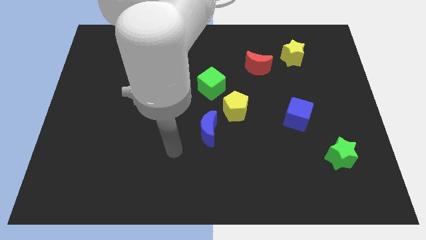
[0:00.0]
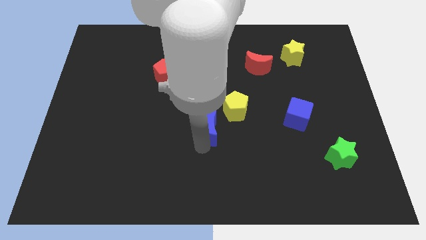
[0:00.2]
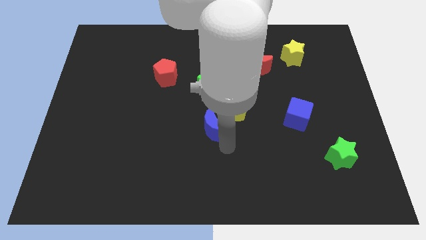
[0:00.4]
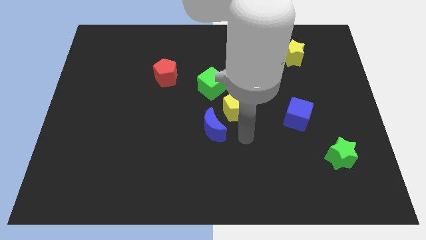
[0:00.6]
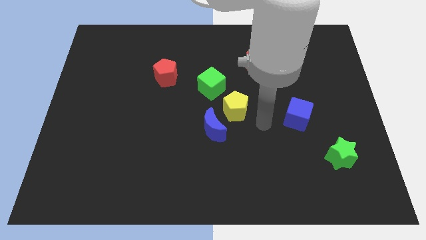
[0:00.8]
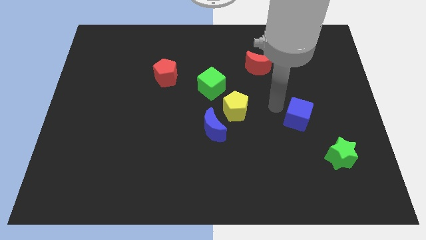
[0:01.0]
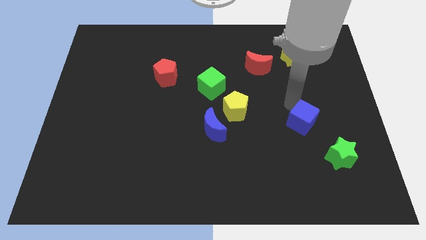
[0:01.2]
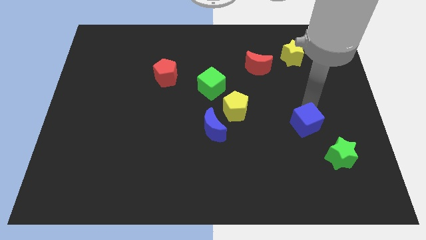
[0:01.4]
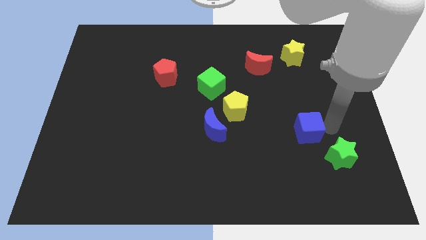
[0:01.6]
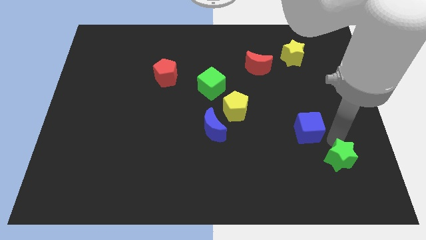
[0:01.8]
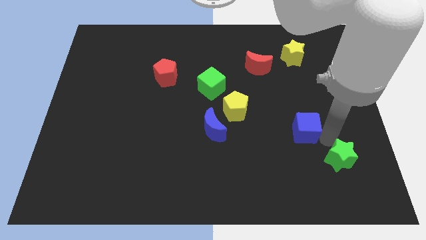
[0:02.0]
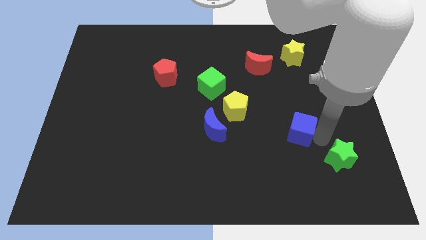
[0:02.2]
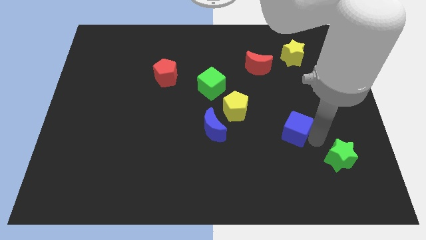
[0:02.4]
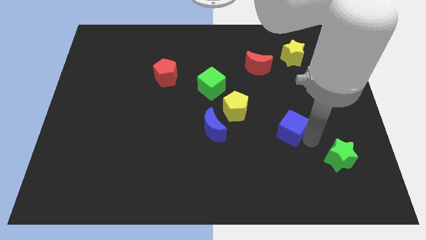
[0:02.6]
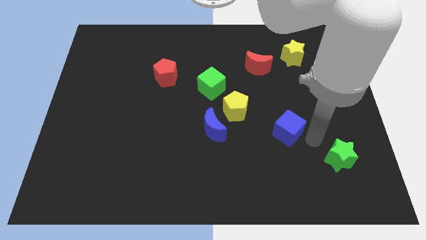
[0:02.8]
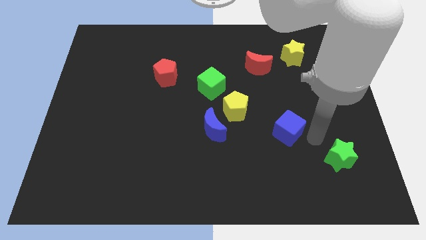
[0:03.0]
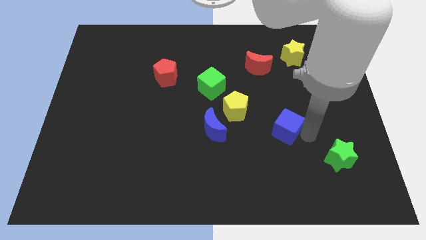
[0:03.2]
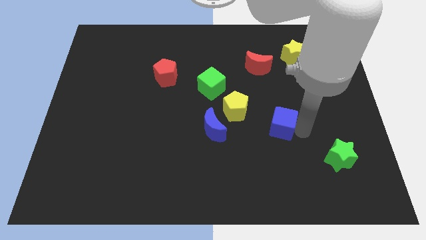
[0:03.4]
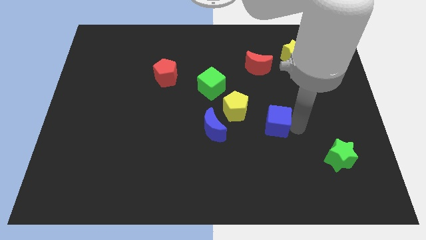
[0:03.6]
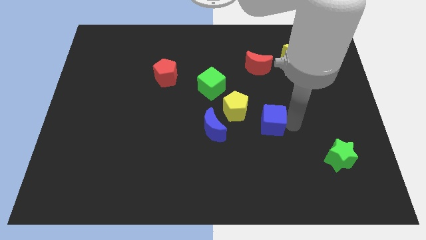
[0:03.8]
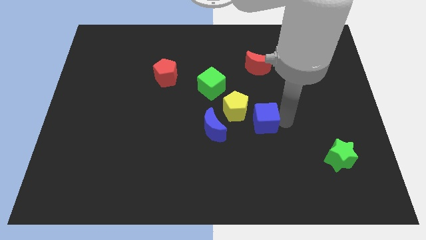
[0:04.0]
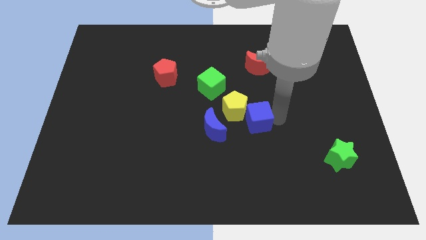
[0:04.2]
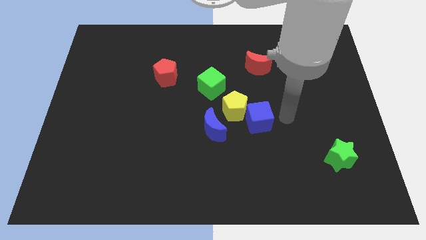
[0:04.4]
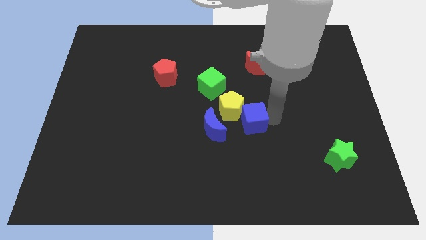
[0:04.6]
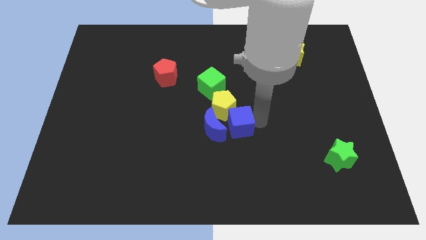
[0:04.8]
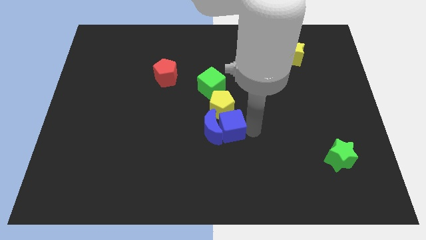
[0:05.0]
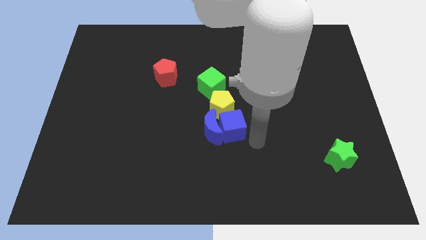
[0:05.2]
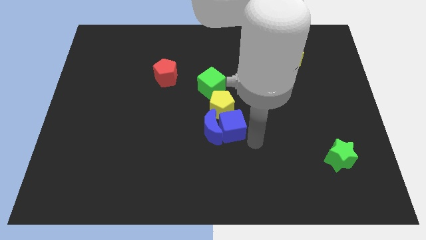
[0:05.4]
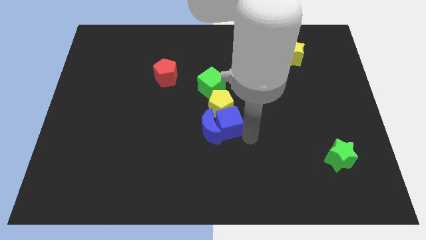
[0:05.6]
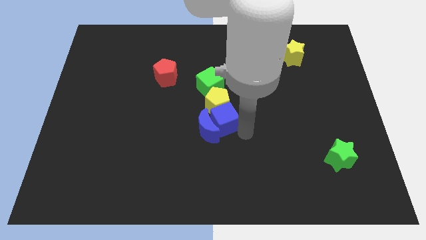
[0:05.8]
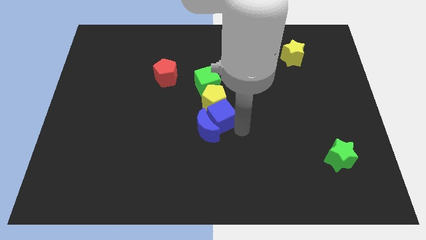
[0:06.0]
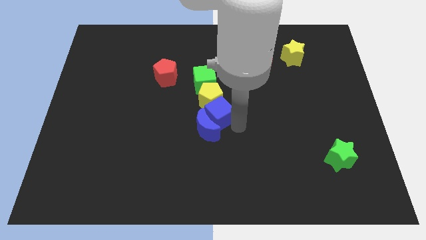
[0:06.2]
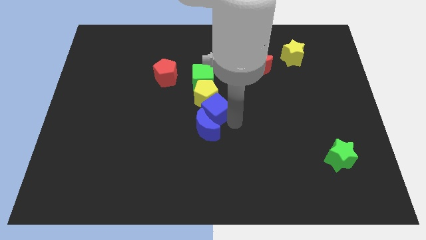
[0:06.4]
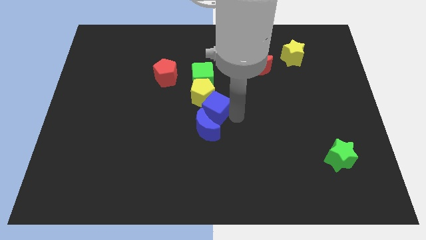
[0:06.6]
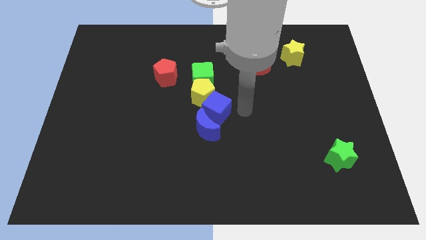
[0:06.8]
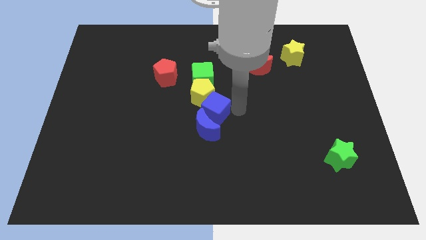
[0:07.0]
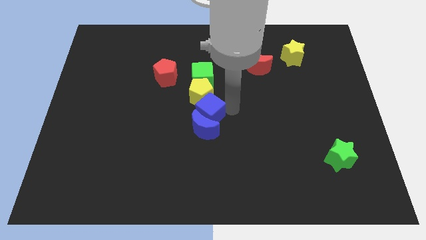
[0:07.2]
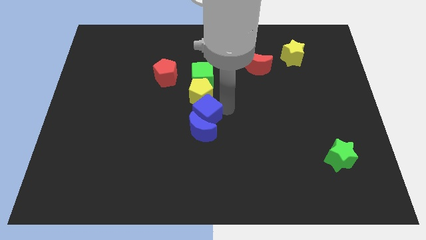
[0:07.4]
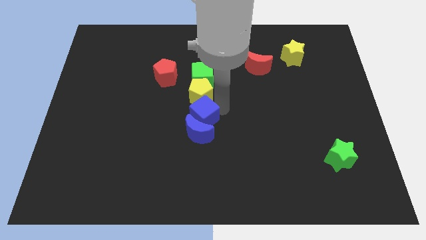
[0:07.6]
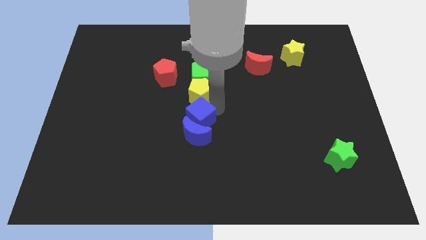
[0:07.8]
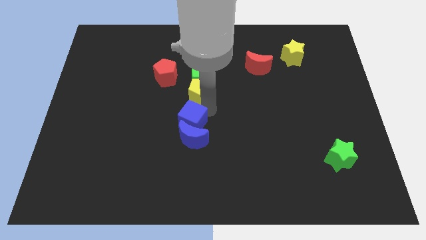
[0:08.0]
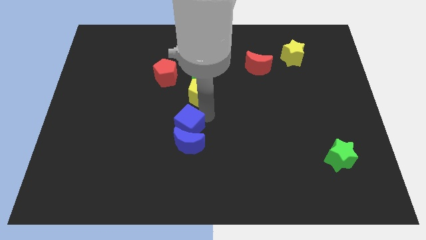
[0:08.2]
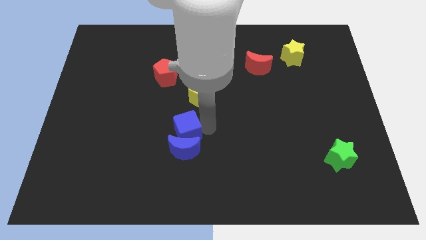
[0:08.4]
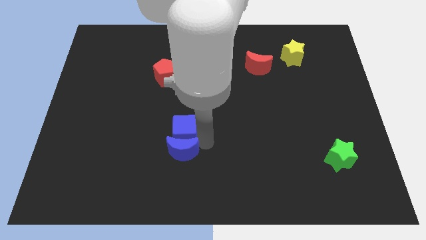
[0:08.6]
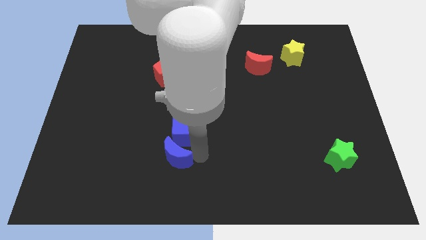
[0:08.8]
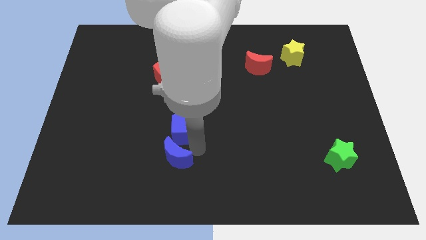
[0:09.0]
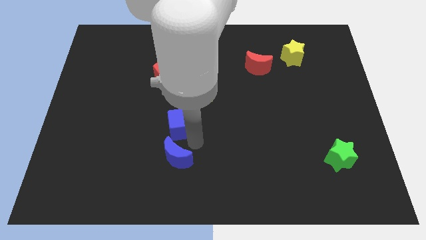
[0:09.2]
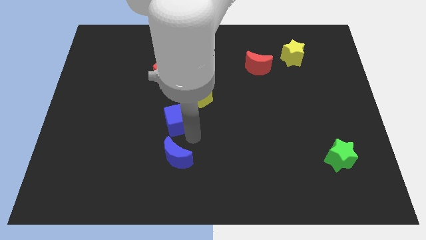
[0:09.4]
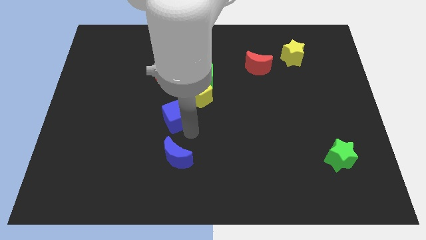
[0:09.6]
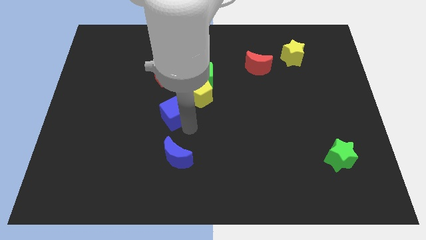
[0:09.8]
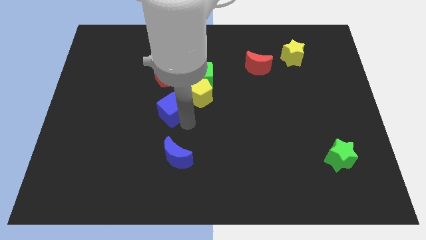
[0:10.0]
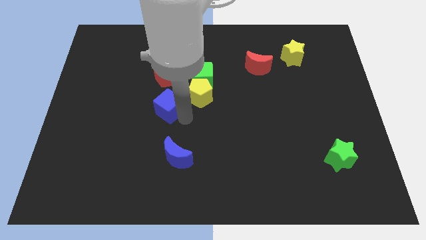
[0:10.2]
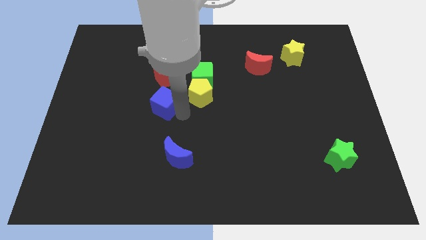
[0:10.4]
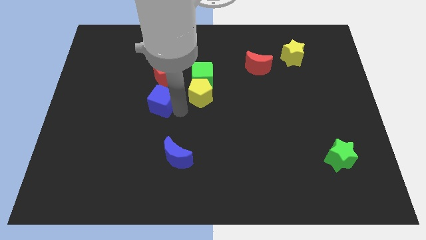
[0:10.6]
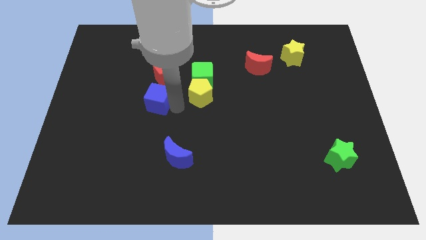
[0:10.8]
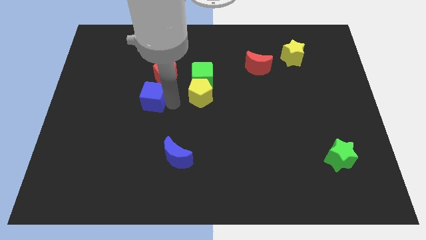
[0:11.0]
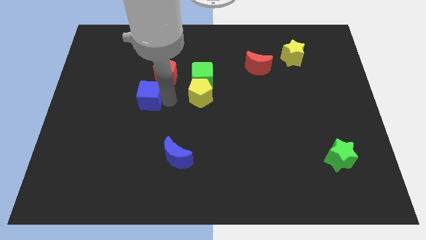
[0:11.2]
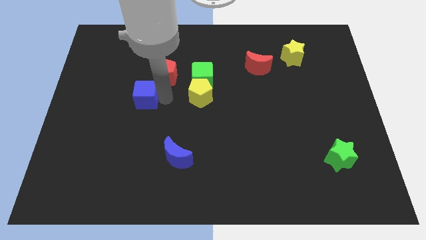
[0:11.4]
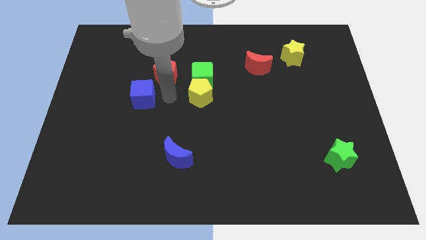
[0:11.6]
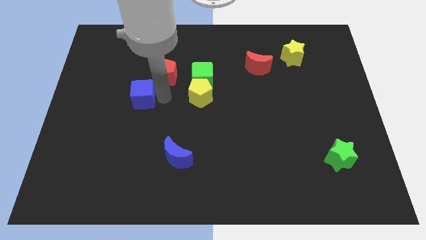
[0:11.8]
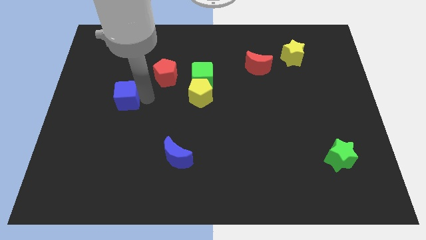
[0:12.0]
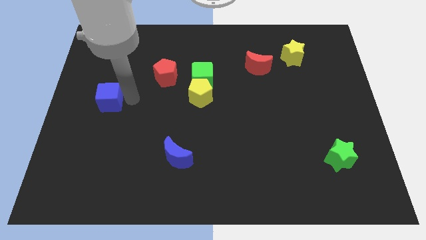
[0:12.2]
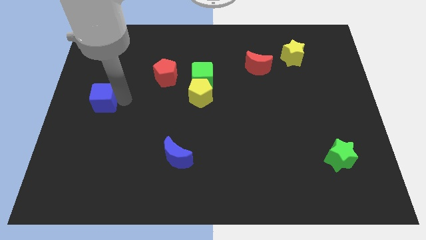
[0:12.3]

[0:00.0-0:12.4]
put the blue cube to the left side of the board

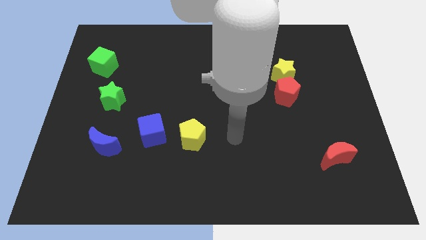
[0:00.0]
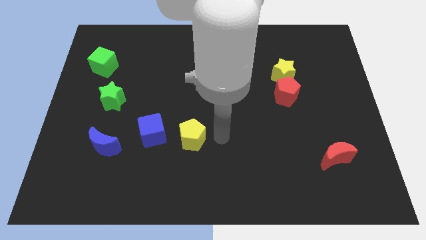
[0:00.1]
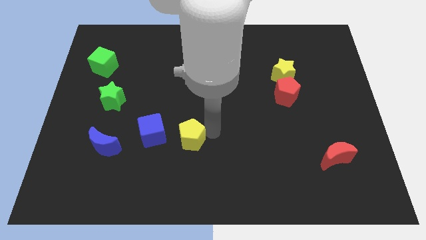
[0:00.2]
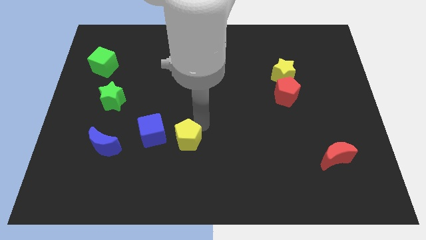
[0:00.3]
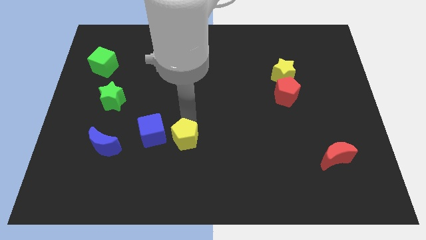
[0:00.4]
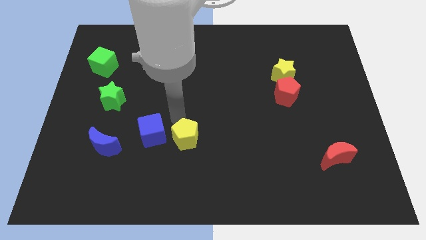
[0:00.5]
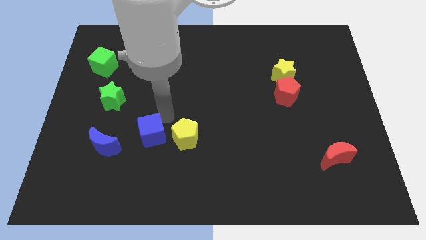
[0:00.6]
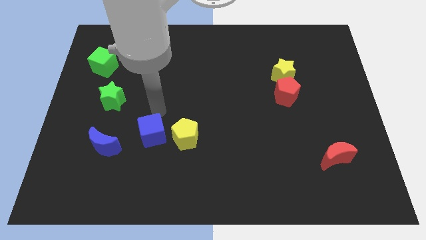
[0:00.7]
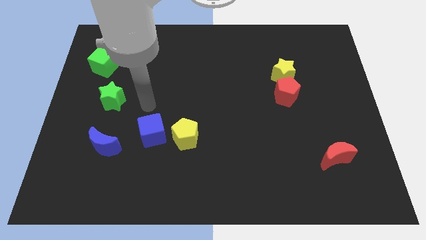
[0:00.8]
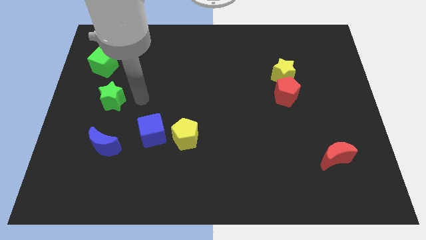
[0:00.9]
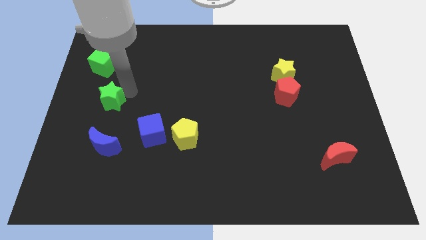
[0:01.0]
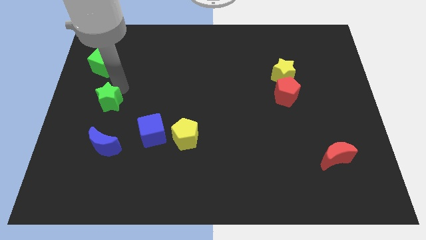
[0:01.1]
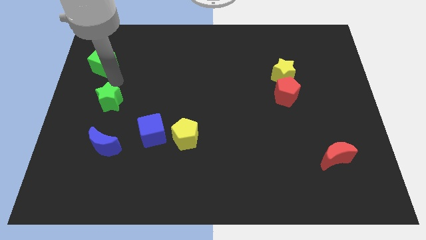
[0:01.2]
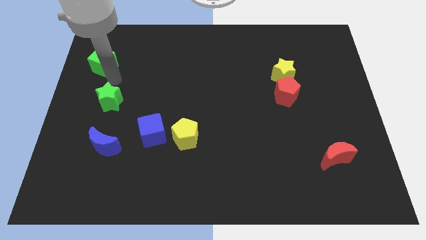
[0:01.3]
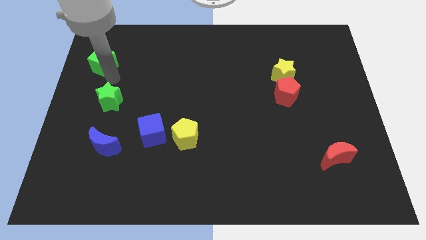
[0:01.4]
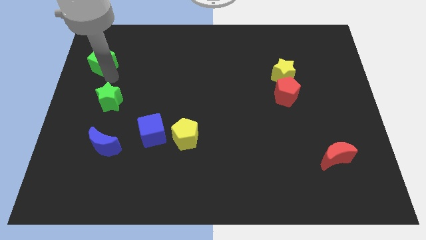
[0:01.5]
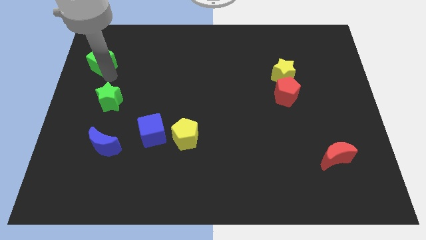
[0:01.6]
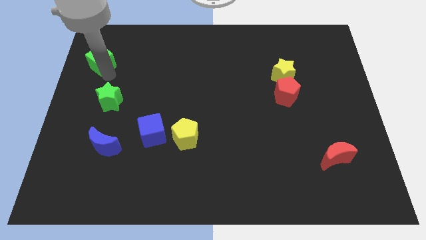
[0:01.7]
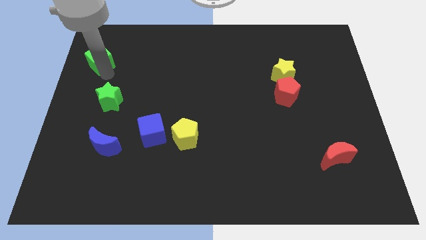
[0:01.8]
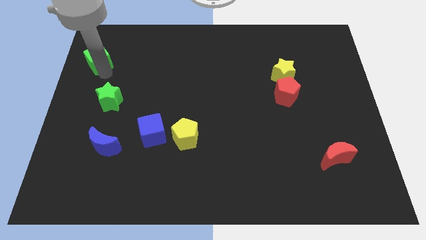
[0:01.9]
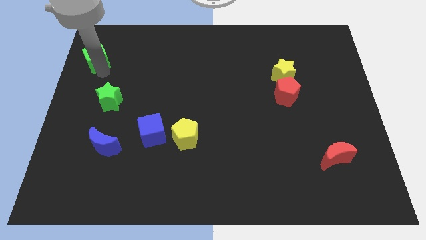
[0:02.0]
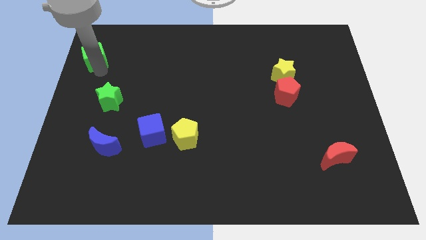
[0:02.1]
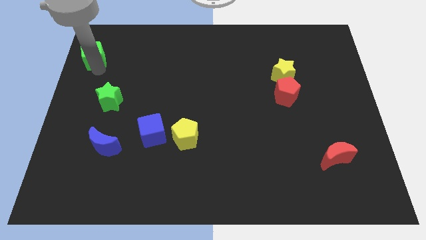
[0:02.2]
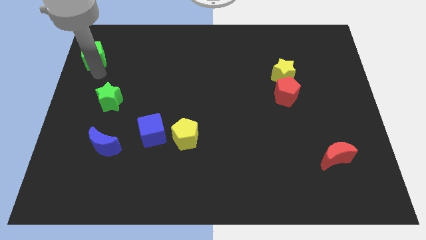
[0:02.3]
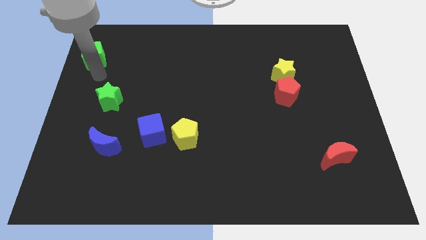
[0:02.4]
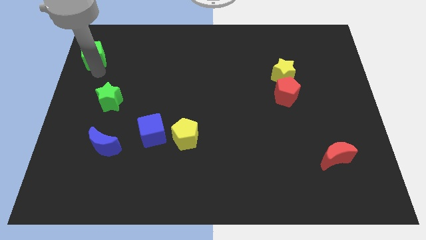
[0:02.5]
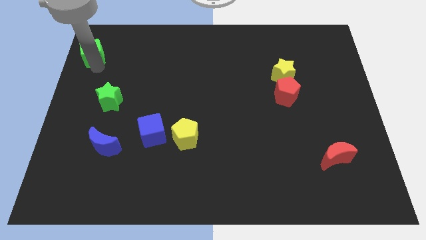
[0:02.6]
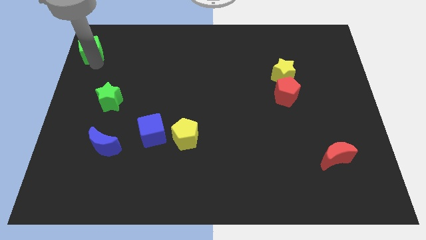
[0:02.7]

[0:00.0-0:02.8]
move the green cube to the top left corner
